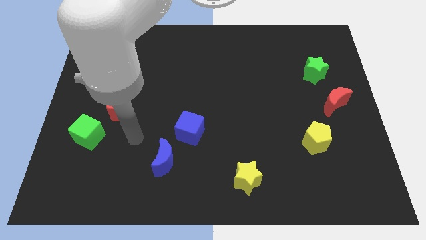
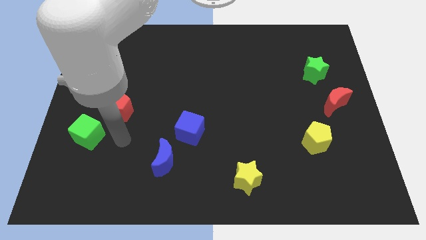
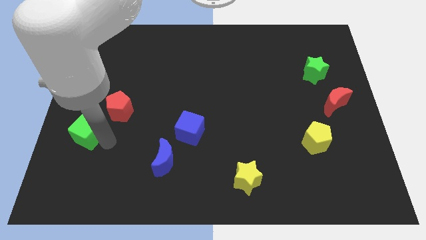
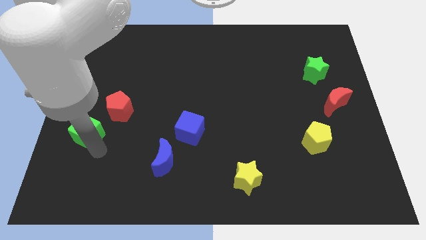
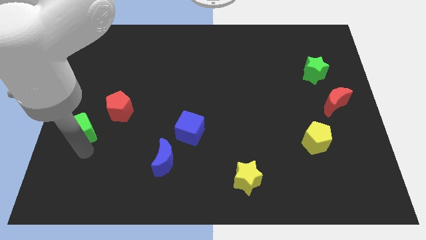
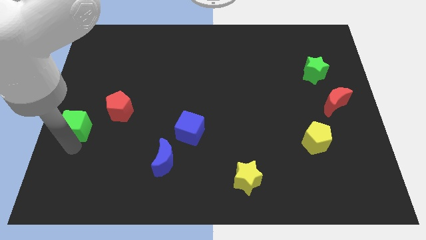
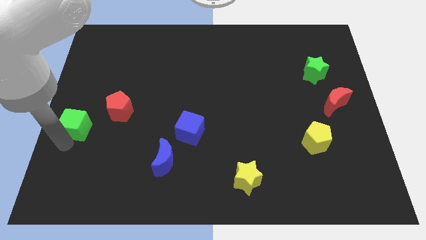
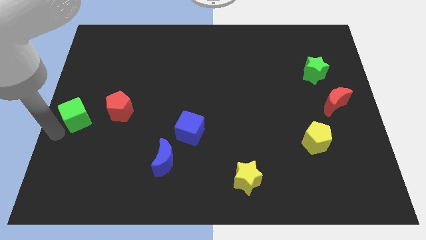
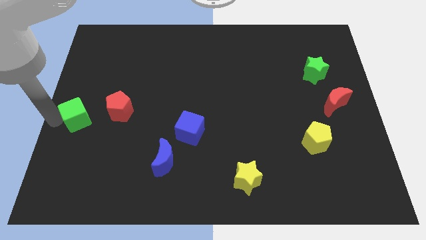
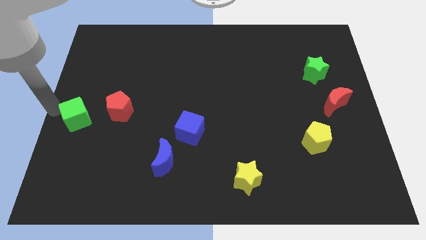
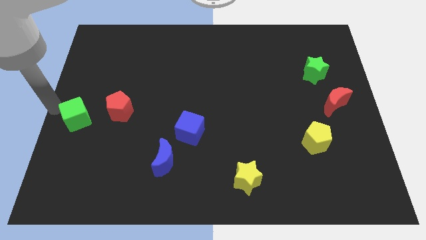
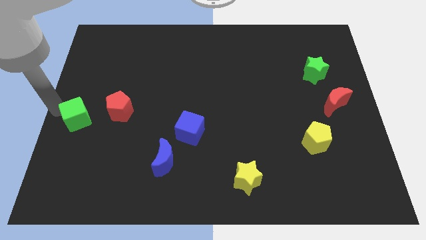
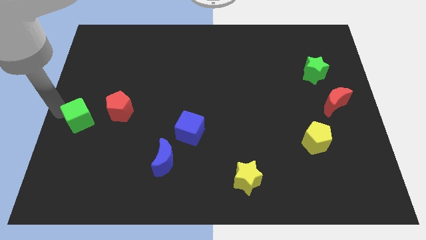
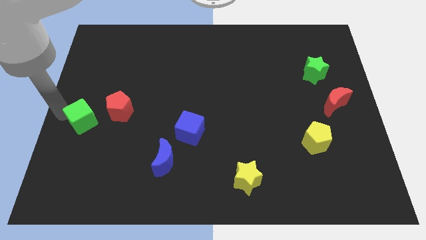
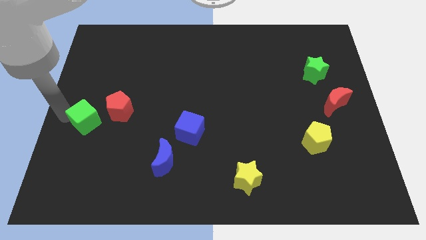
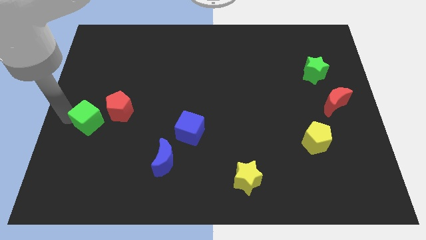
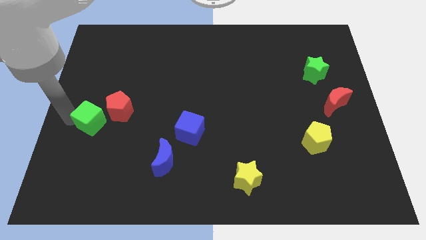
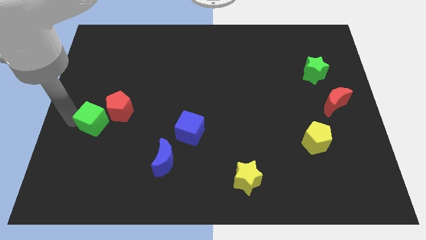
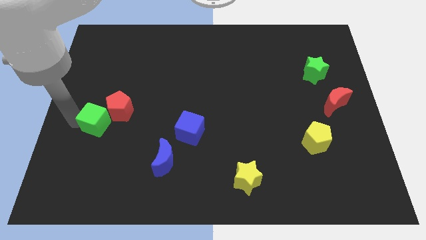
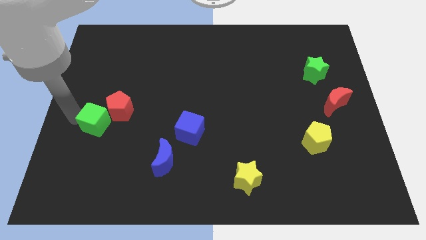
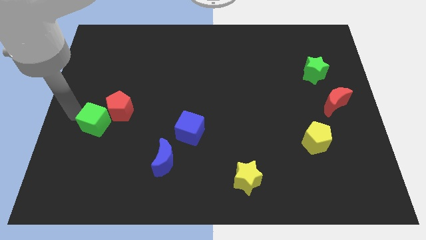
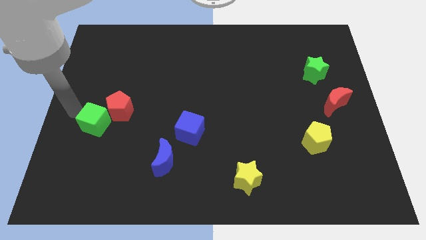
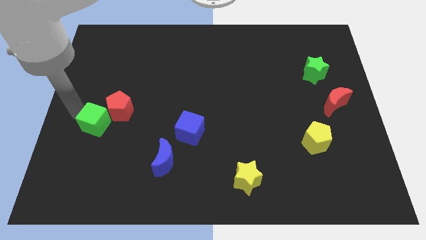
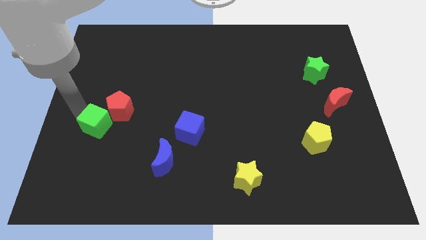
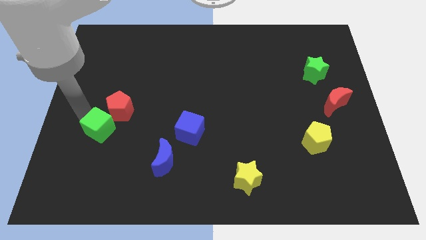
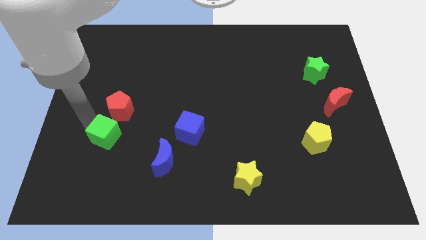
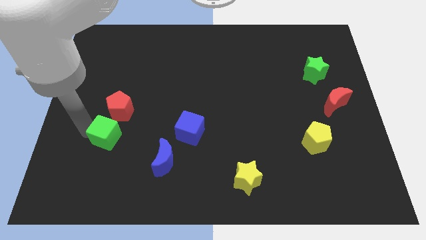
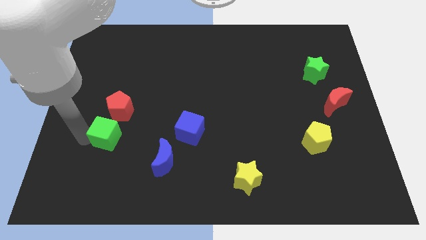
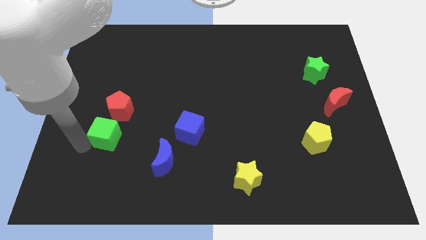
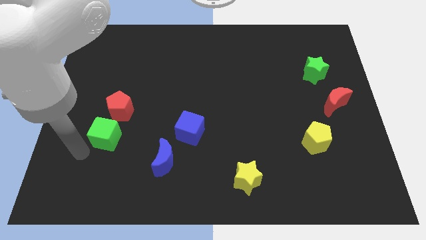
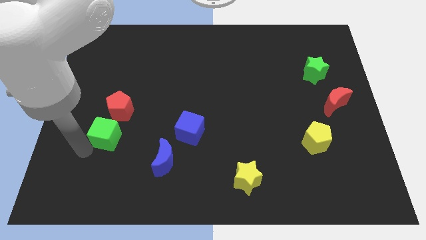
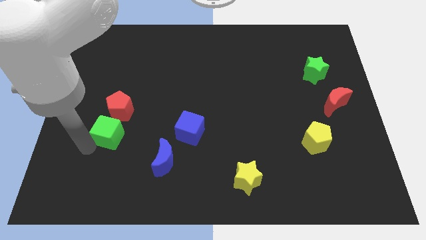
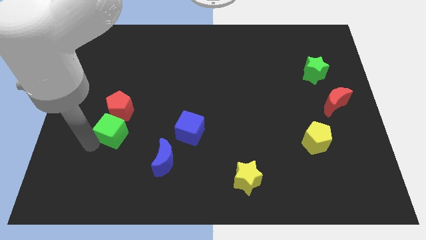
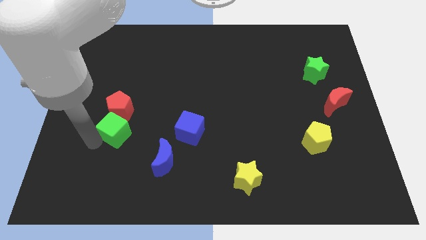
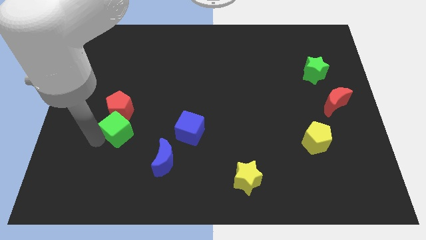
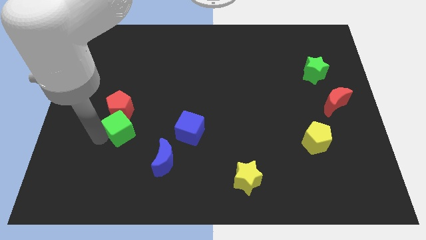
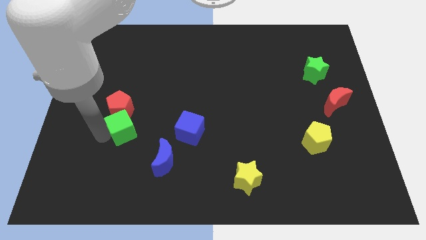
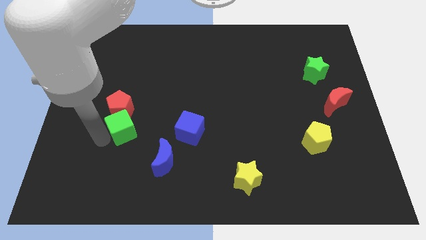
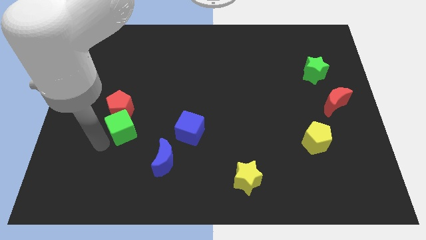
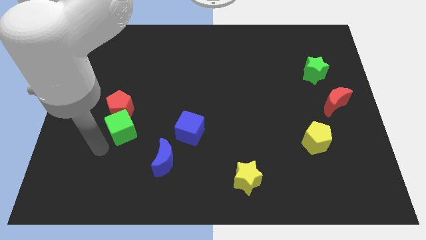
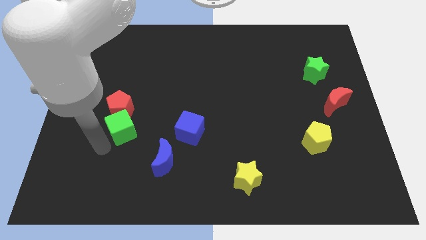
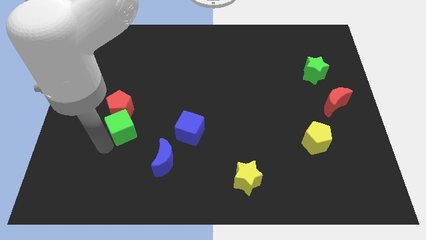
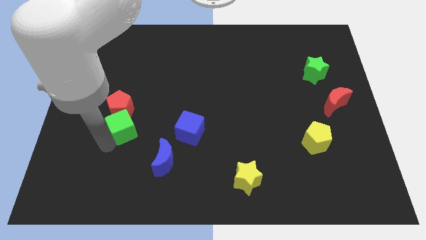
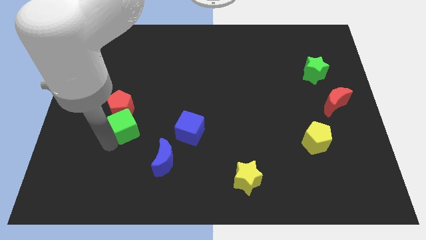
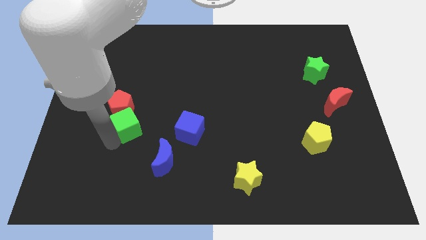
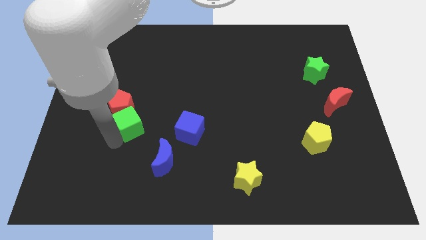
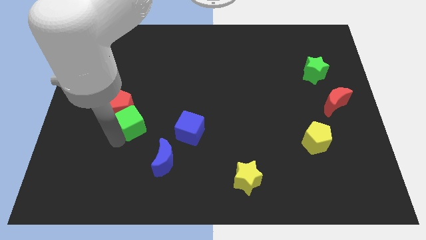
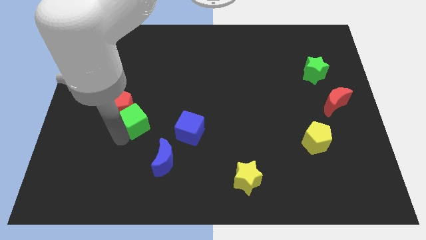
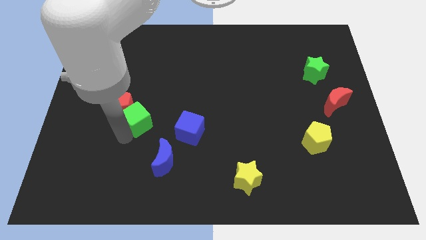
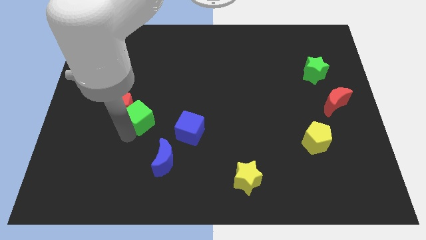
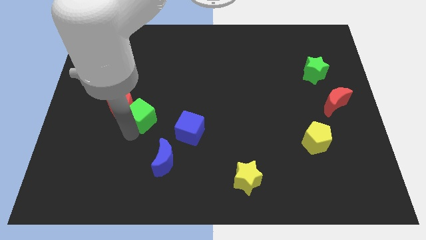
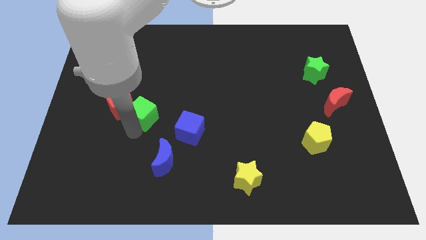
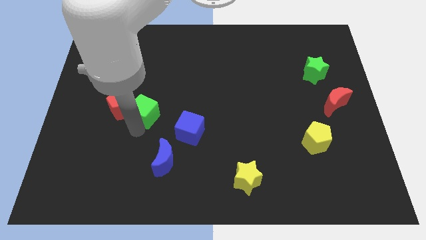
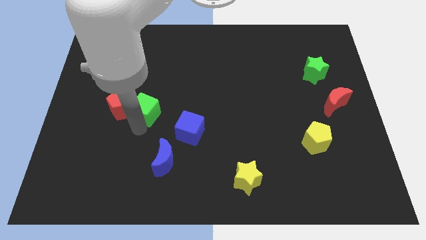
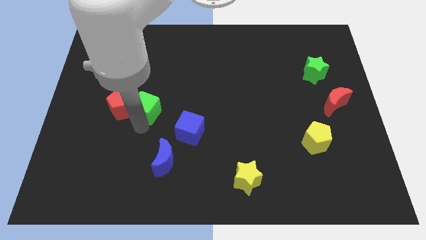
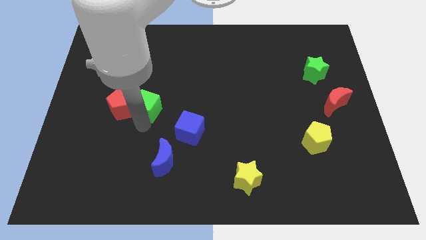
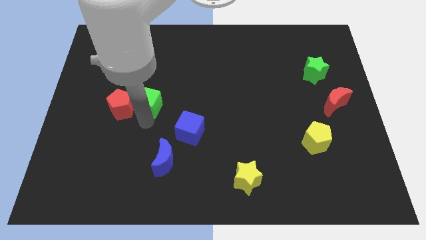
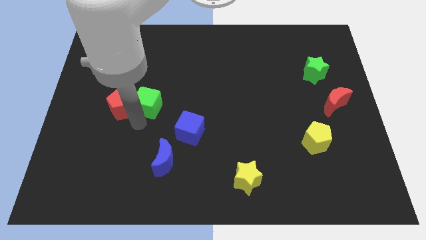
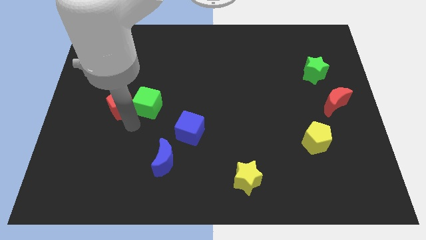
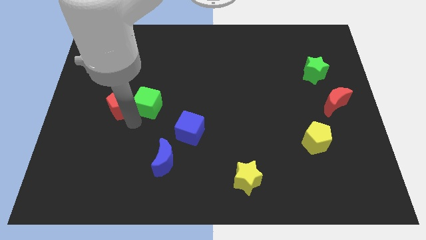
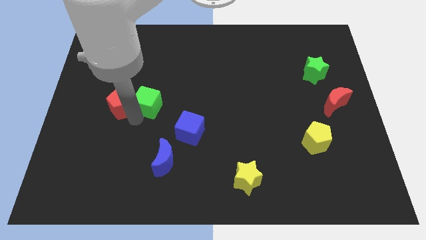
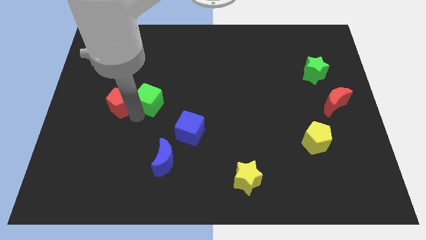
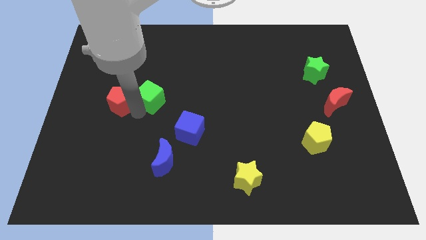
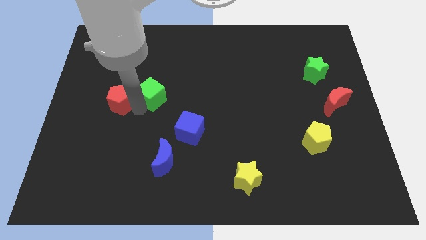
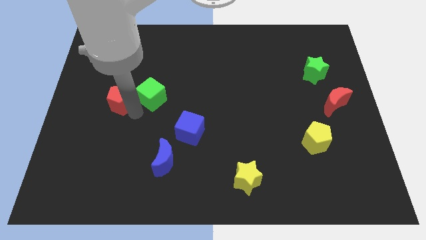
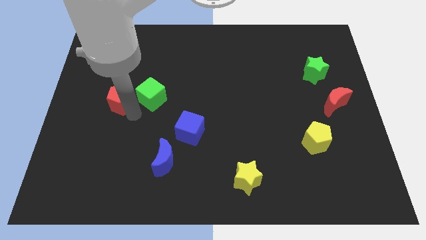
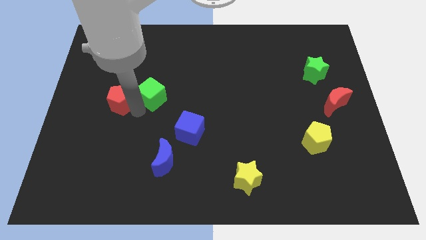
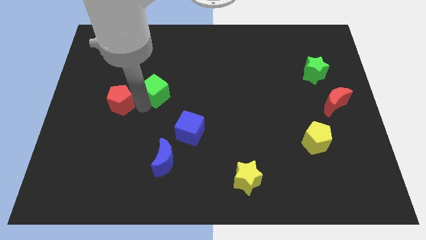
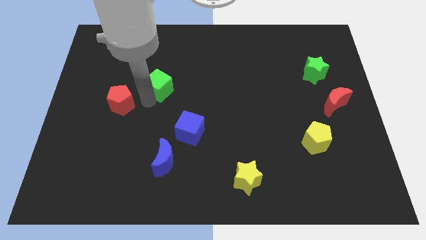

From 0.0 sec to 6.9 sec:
push the green cube up and to the right

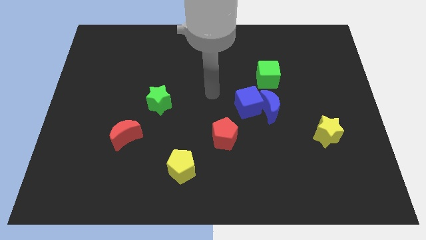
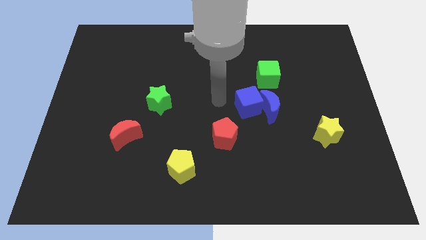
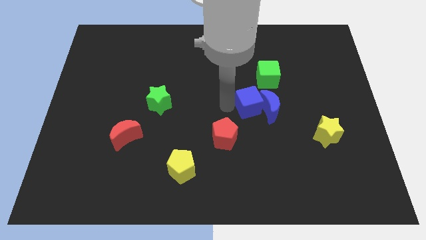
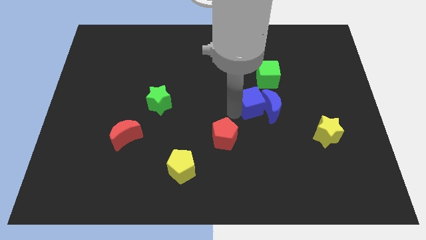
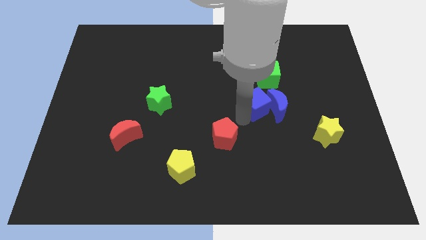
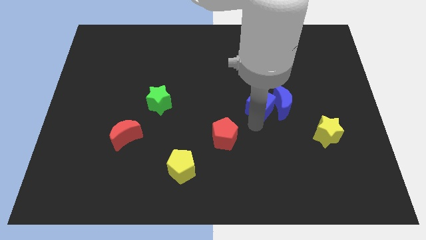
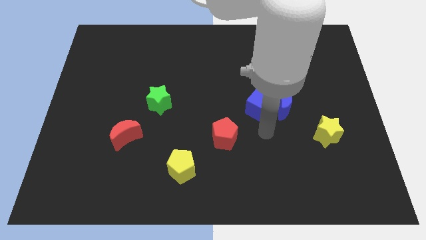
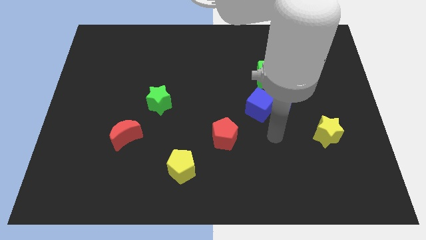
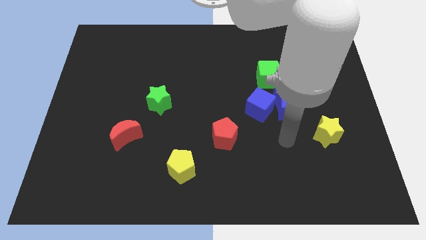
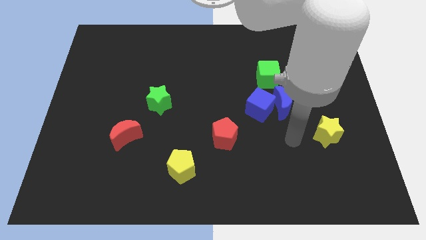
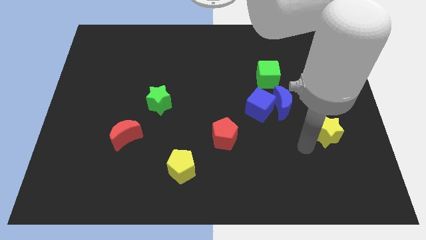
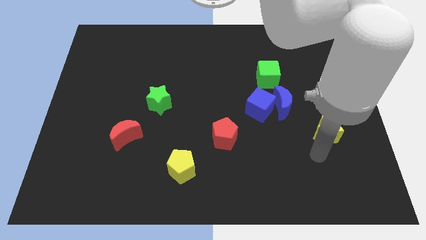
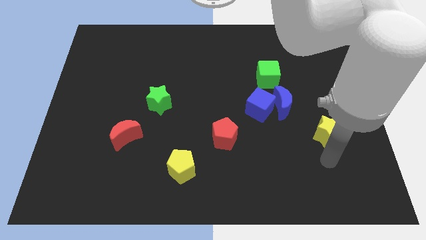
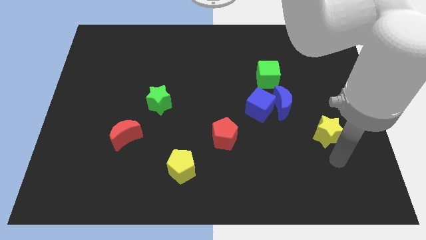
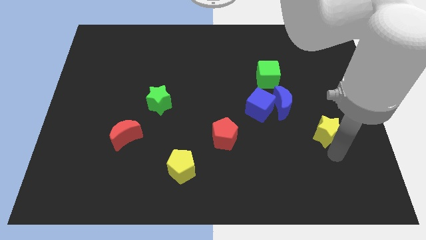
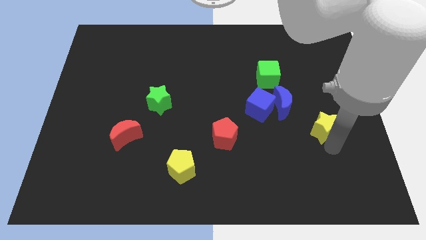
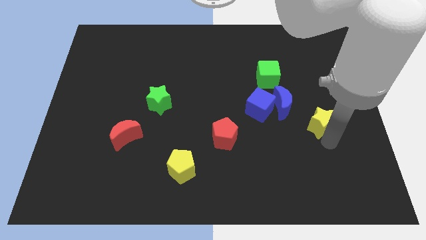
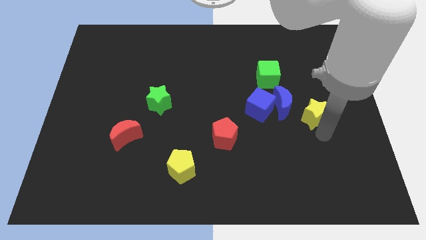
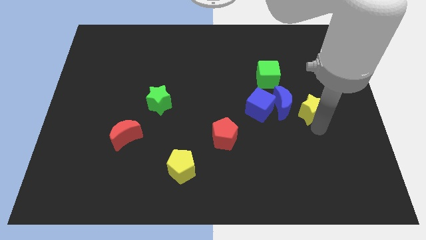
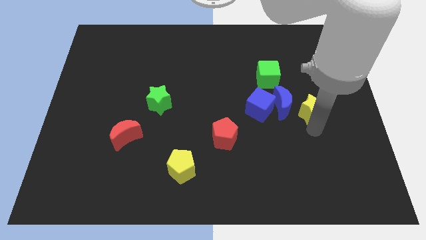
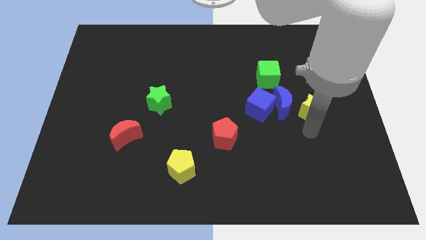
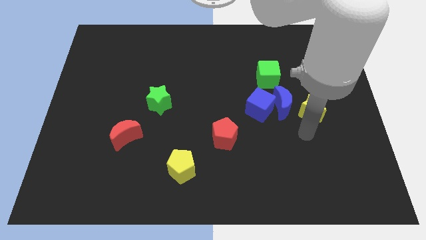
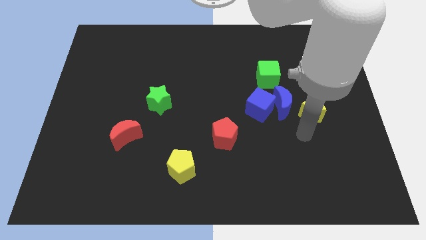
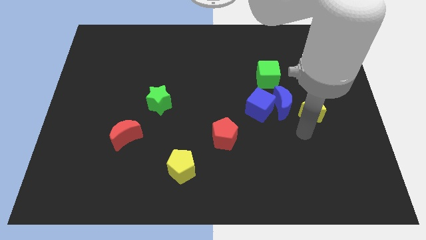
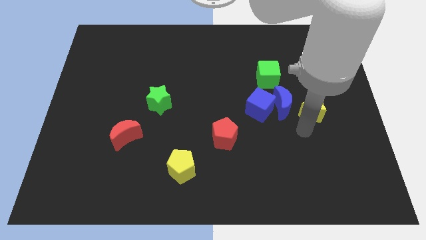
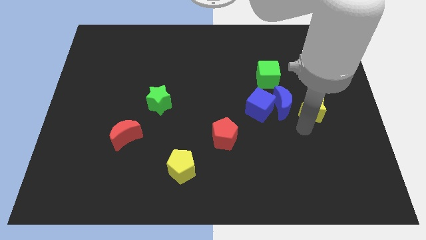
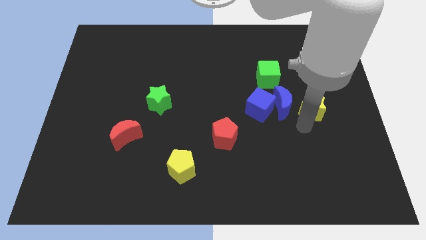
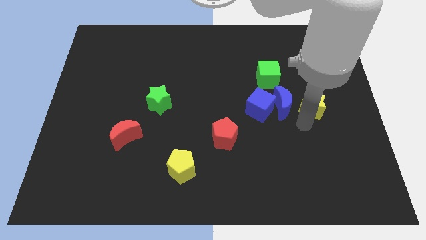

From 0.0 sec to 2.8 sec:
push the yellow star up slightly
